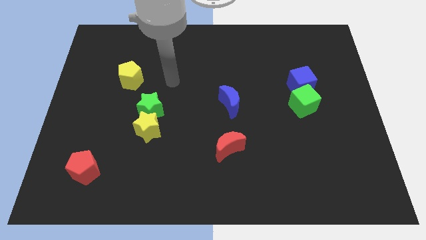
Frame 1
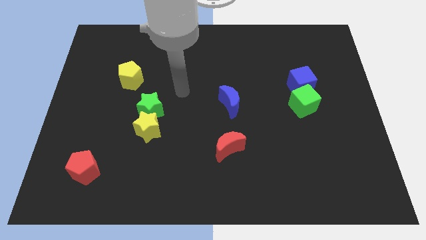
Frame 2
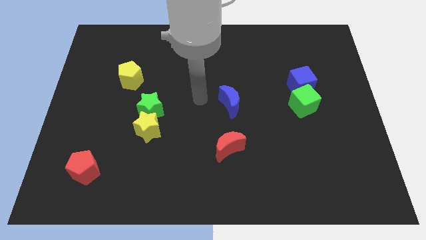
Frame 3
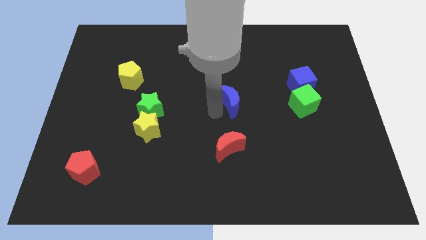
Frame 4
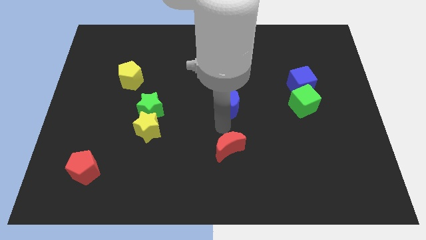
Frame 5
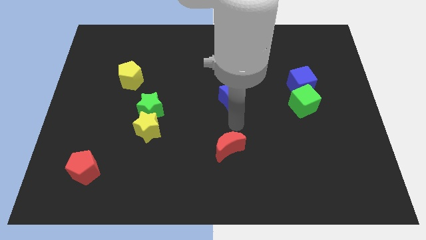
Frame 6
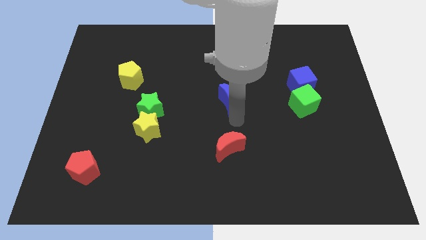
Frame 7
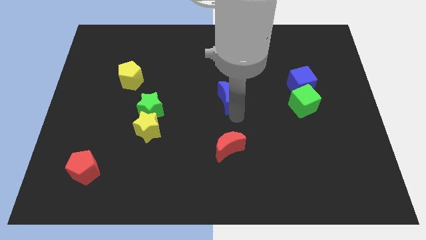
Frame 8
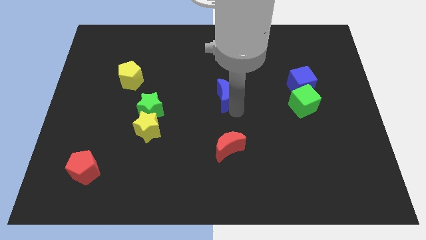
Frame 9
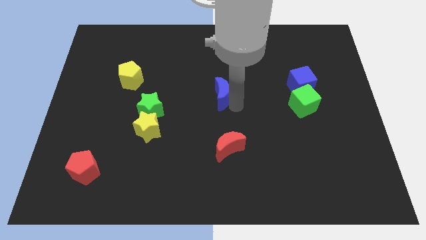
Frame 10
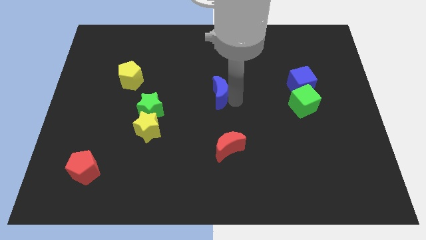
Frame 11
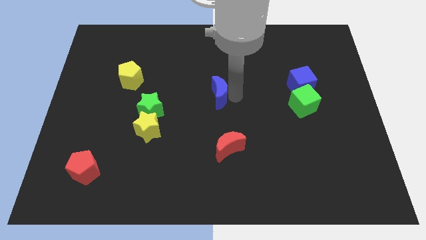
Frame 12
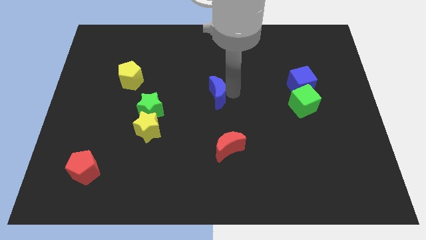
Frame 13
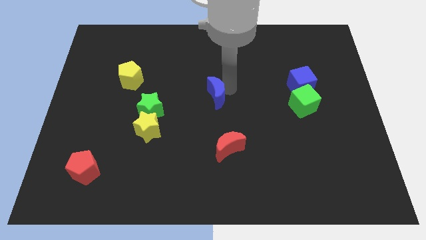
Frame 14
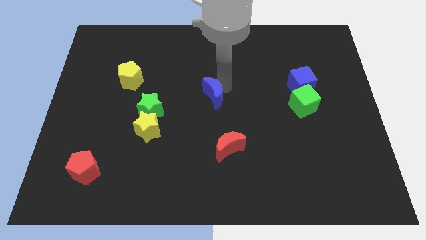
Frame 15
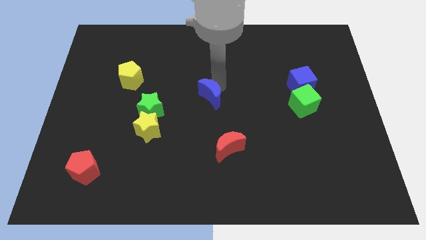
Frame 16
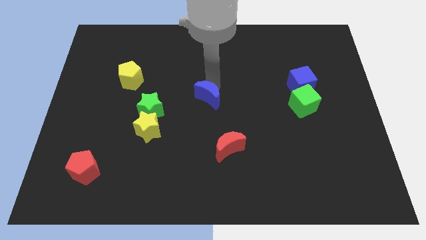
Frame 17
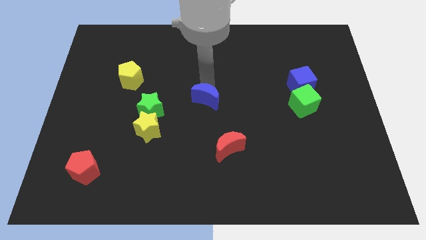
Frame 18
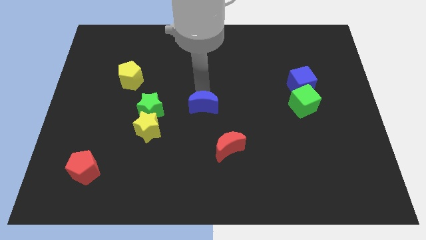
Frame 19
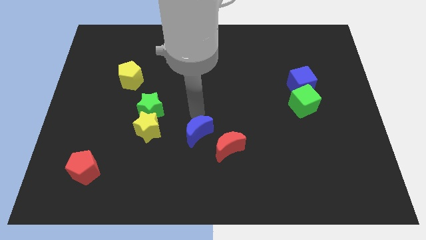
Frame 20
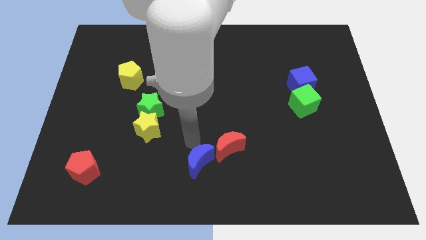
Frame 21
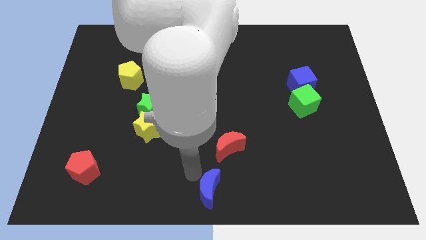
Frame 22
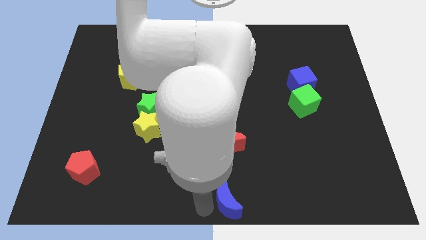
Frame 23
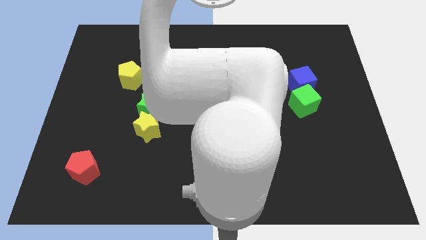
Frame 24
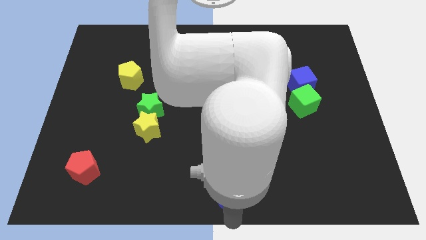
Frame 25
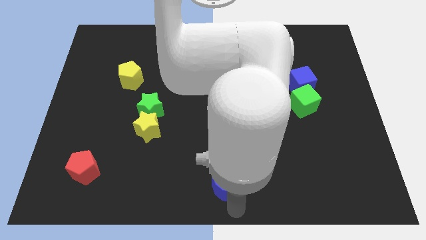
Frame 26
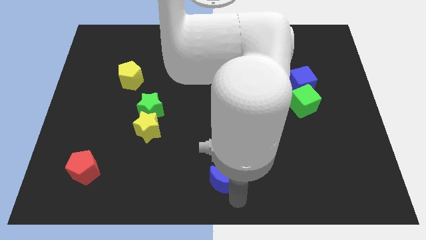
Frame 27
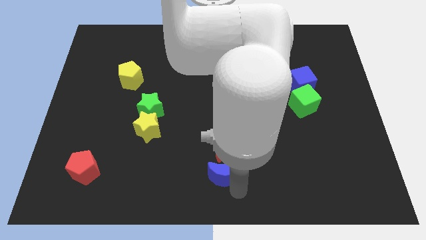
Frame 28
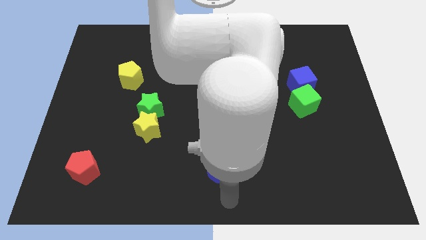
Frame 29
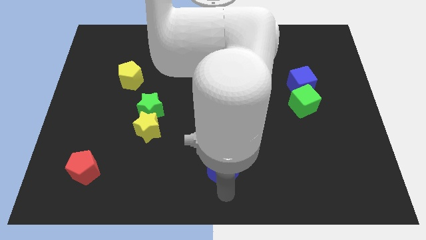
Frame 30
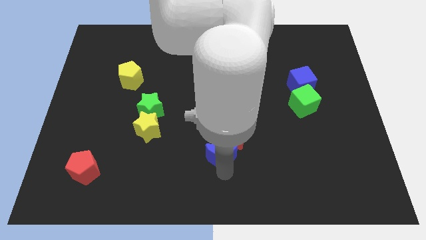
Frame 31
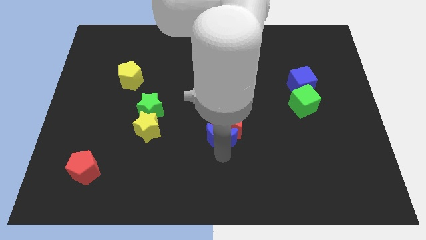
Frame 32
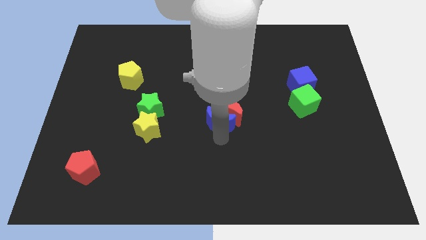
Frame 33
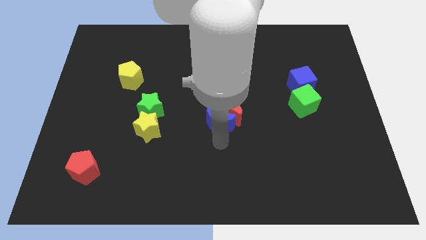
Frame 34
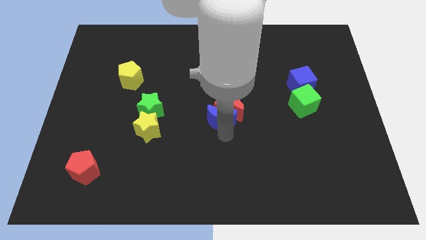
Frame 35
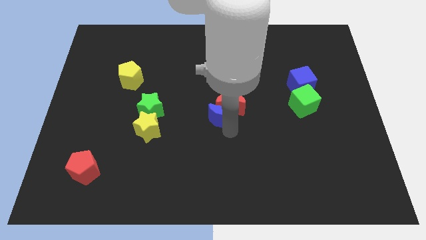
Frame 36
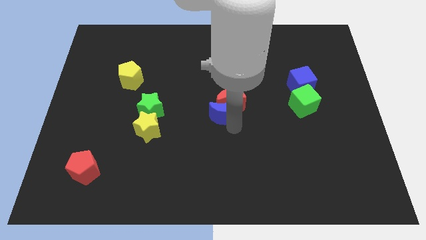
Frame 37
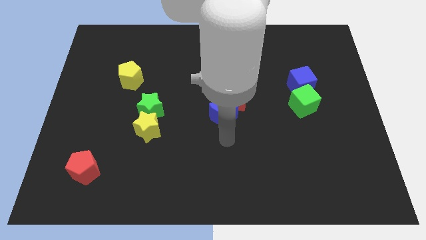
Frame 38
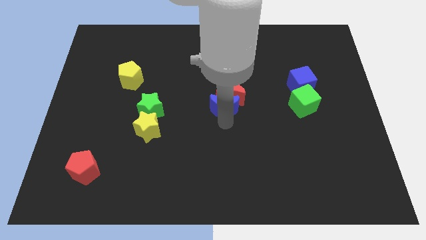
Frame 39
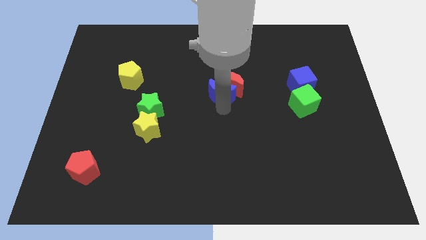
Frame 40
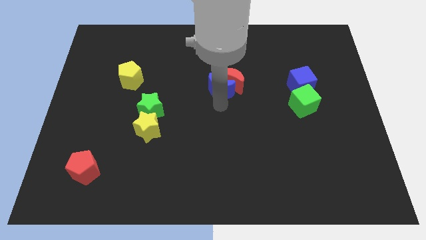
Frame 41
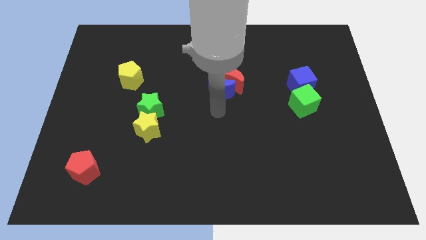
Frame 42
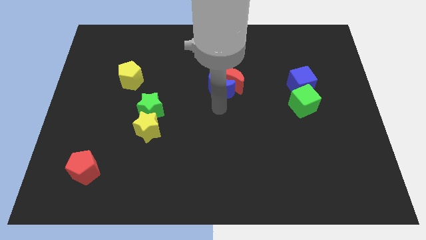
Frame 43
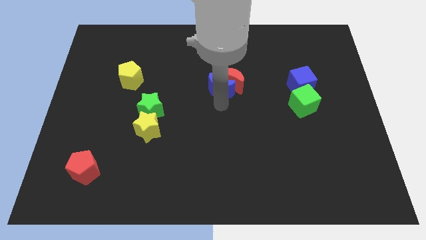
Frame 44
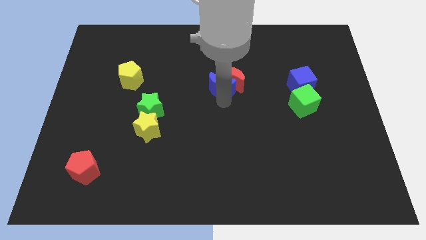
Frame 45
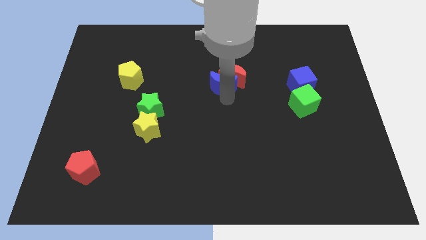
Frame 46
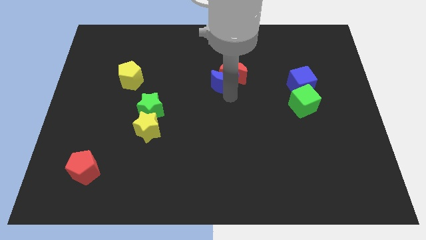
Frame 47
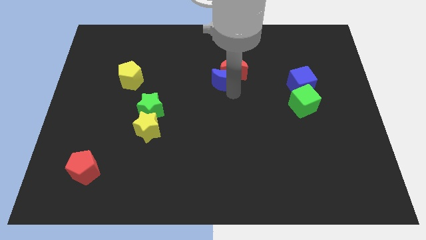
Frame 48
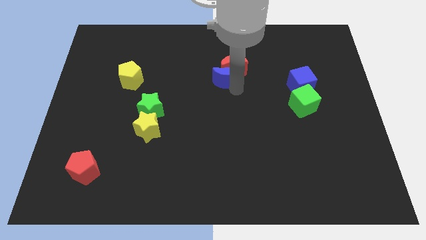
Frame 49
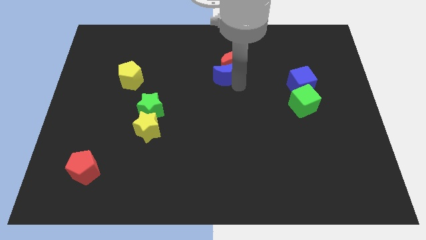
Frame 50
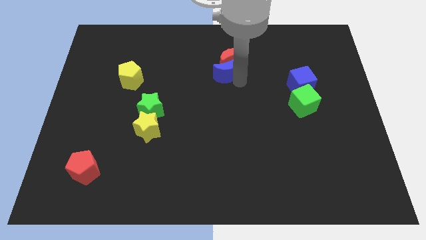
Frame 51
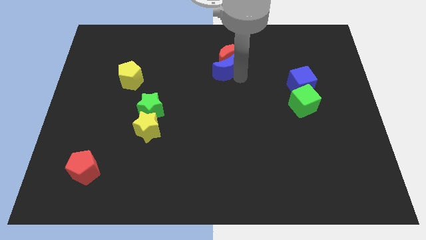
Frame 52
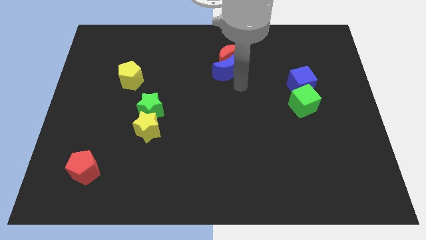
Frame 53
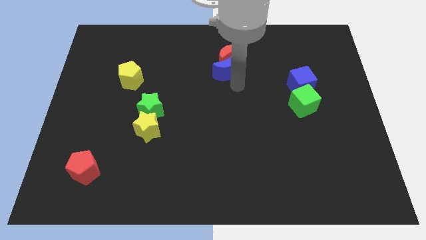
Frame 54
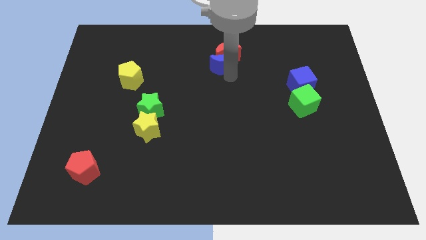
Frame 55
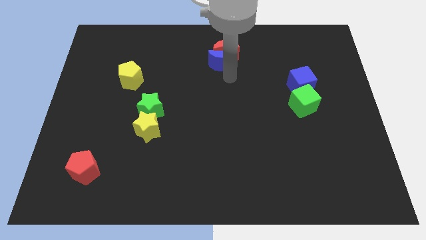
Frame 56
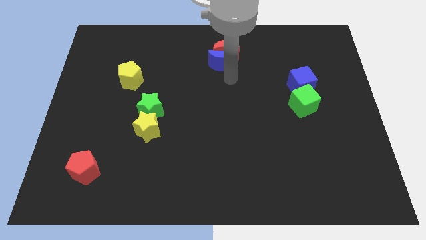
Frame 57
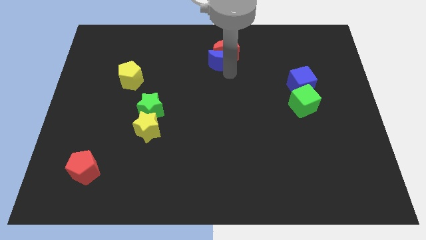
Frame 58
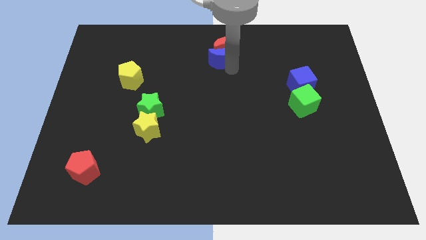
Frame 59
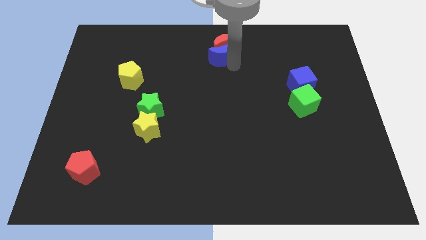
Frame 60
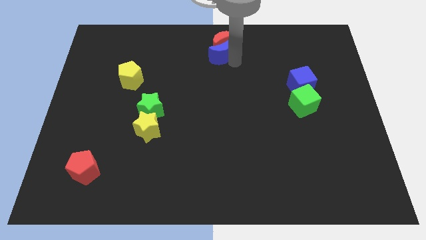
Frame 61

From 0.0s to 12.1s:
move the blue moon to the towards your base
